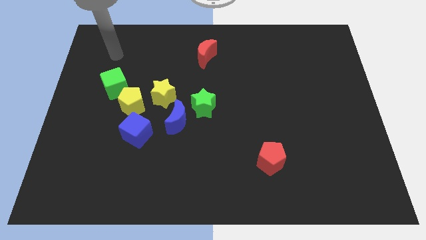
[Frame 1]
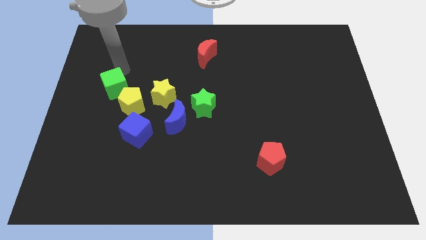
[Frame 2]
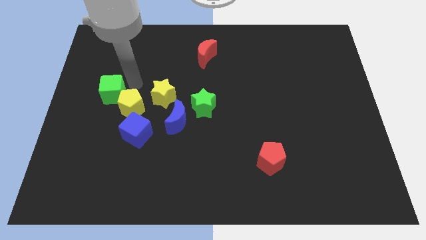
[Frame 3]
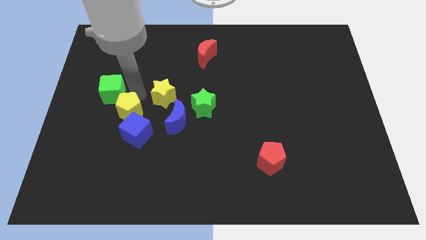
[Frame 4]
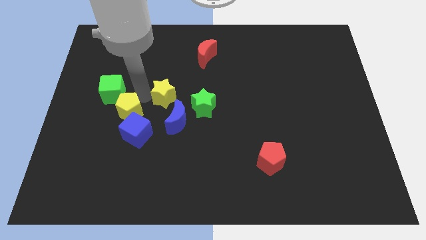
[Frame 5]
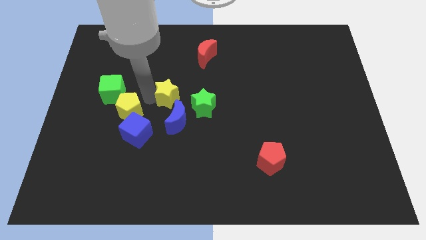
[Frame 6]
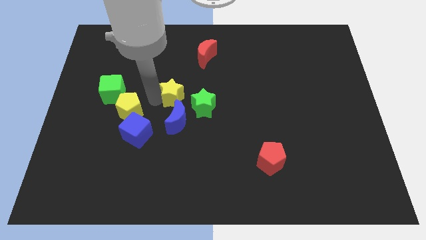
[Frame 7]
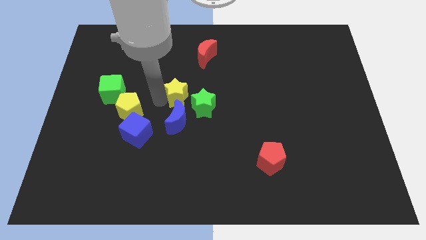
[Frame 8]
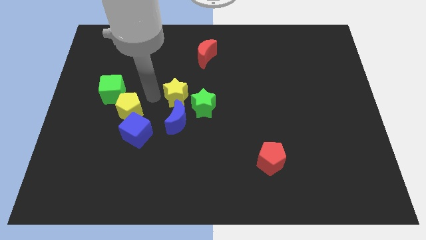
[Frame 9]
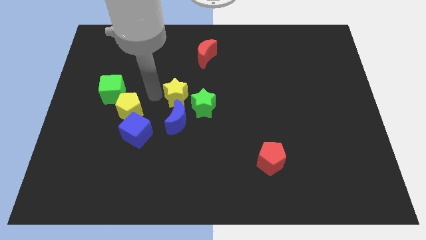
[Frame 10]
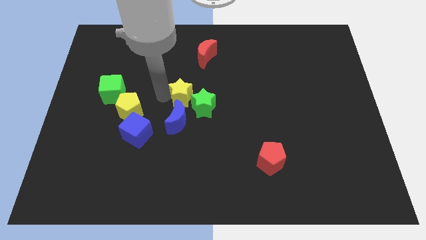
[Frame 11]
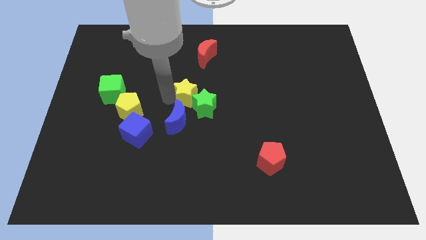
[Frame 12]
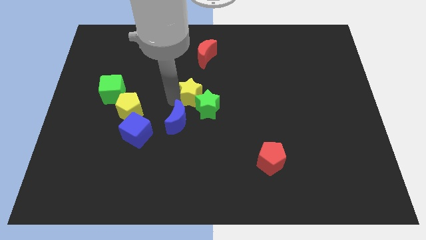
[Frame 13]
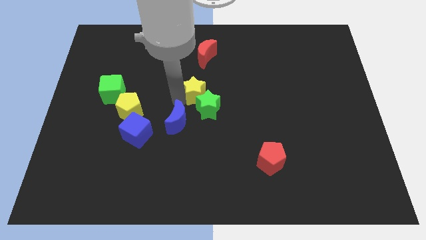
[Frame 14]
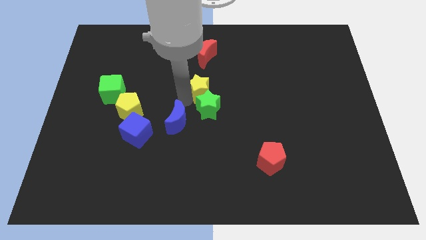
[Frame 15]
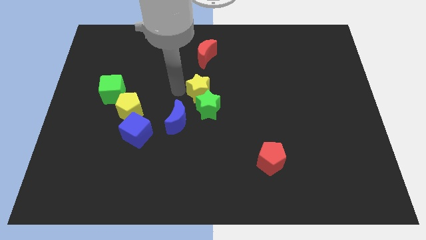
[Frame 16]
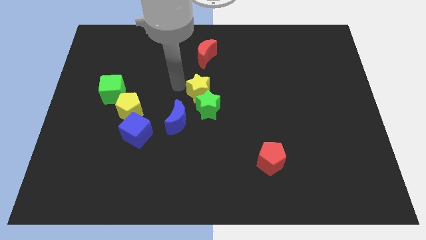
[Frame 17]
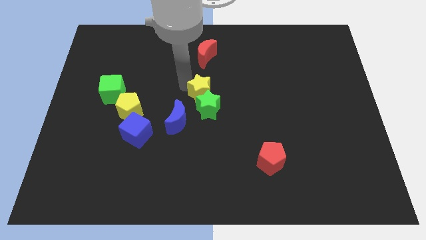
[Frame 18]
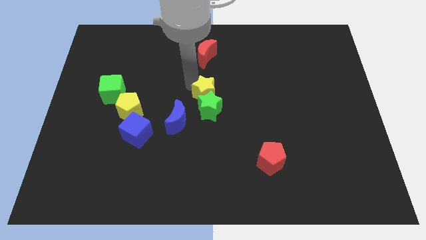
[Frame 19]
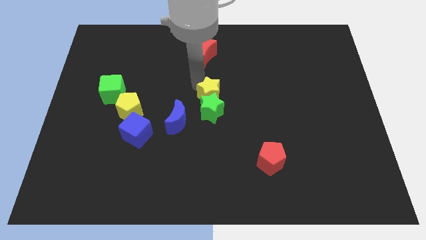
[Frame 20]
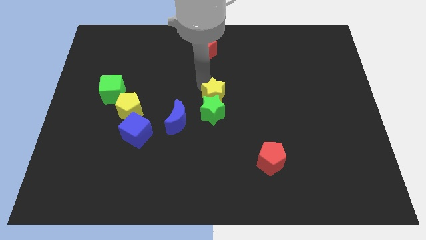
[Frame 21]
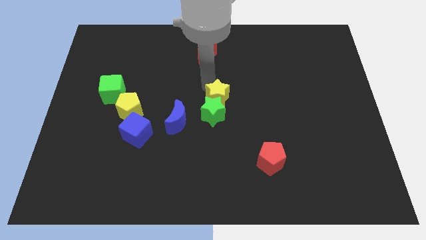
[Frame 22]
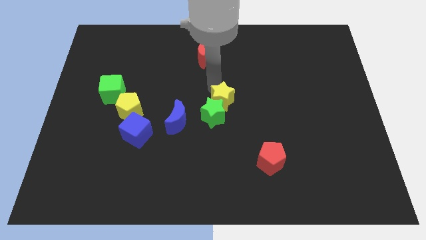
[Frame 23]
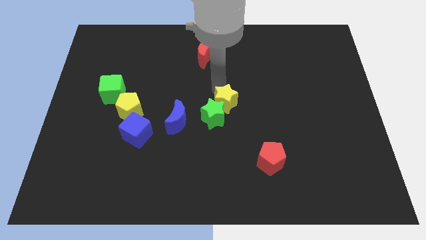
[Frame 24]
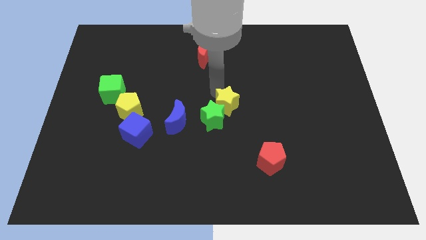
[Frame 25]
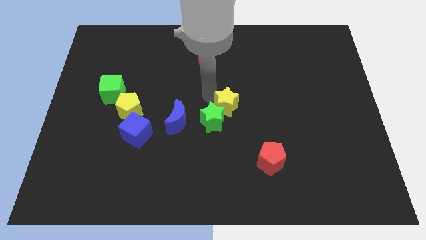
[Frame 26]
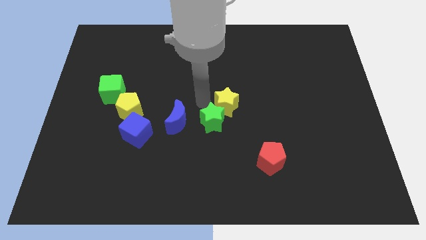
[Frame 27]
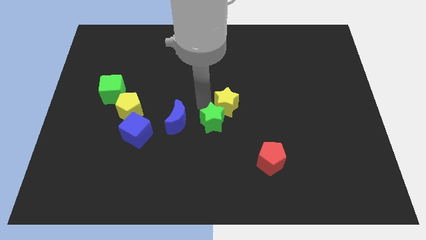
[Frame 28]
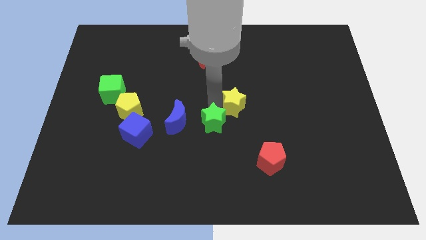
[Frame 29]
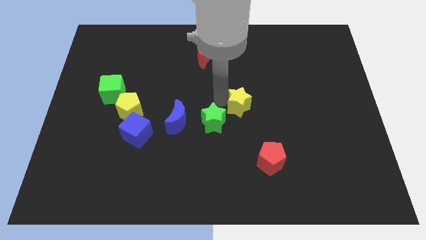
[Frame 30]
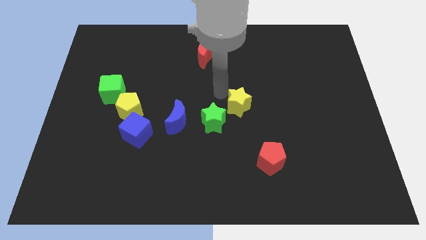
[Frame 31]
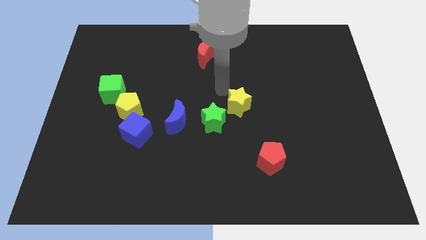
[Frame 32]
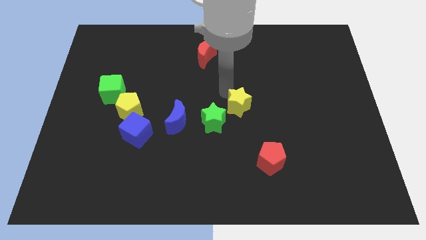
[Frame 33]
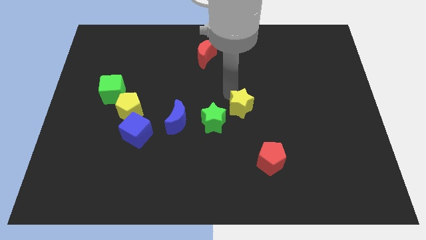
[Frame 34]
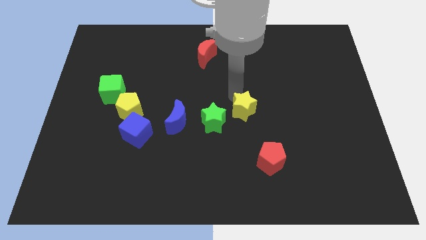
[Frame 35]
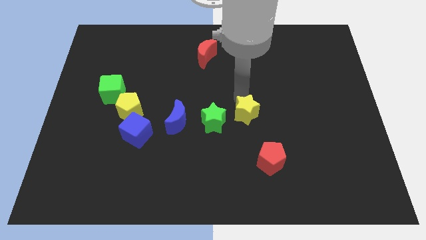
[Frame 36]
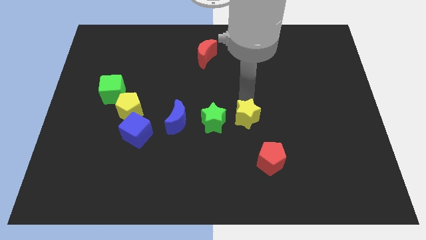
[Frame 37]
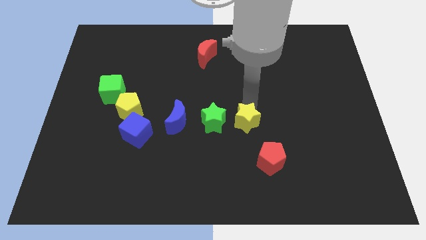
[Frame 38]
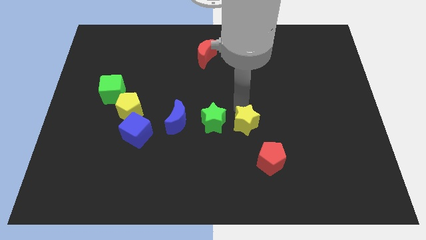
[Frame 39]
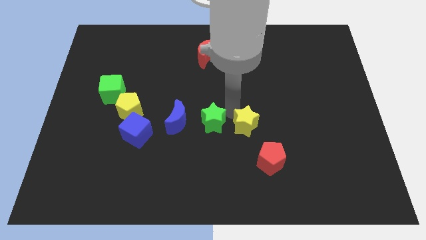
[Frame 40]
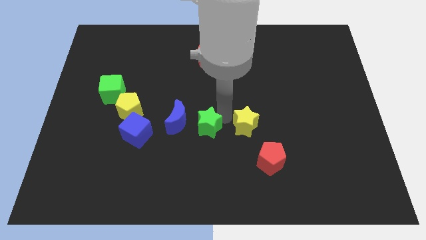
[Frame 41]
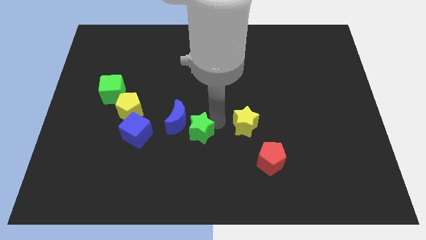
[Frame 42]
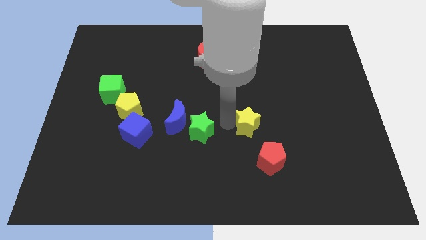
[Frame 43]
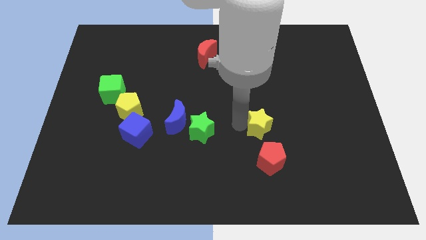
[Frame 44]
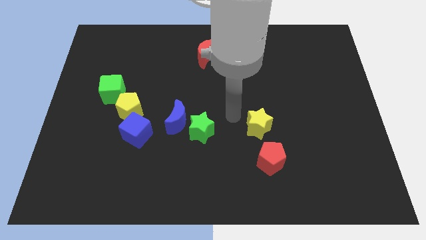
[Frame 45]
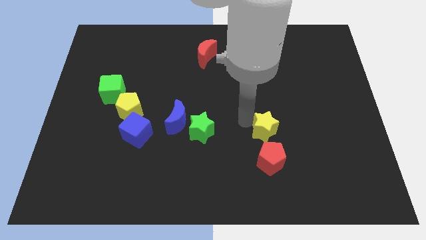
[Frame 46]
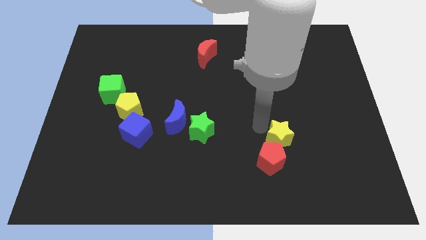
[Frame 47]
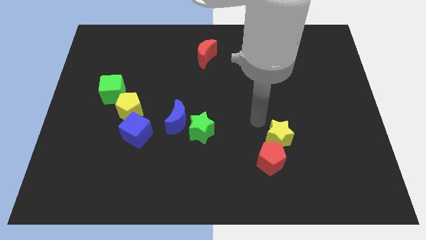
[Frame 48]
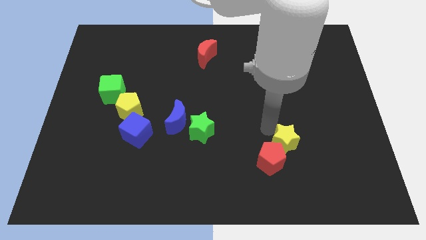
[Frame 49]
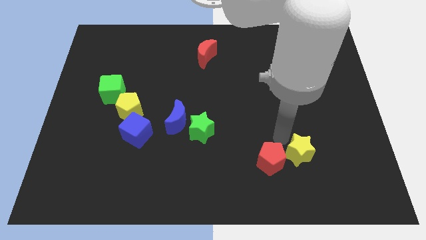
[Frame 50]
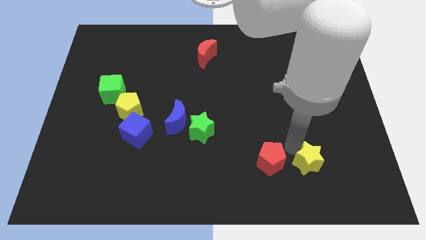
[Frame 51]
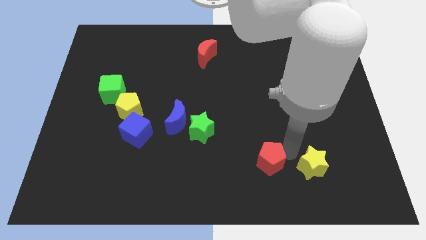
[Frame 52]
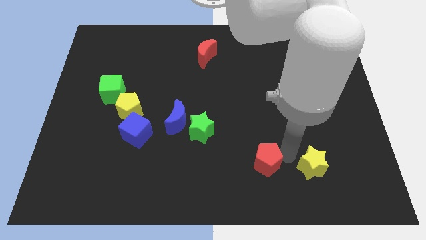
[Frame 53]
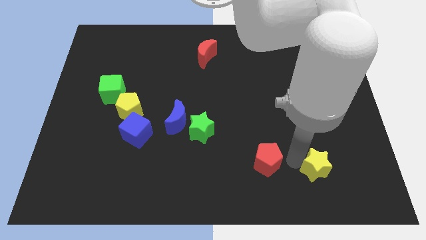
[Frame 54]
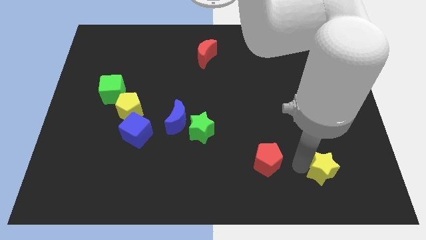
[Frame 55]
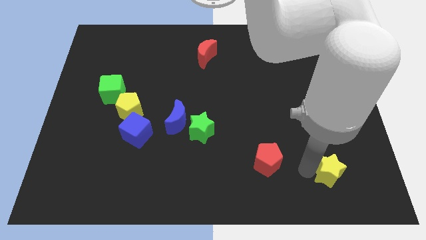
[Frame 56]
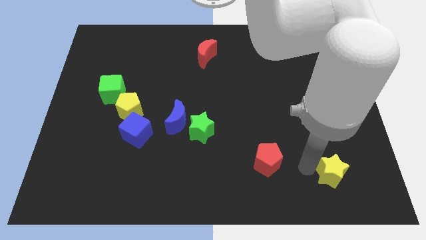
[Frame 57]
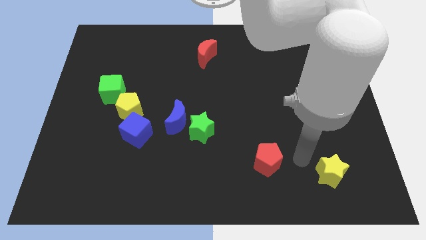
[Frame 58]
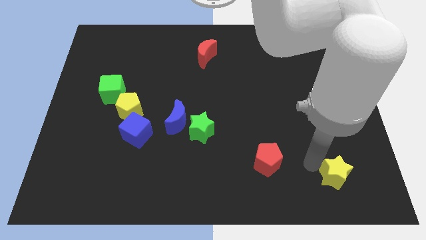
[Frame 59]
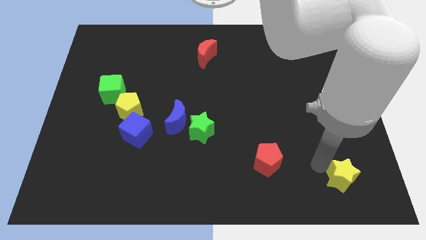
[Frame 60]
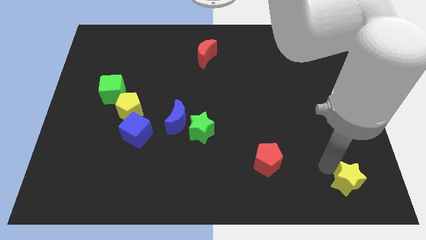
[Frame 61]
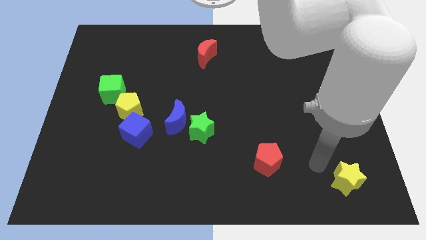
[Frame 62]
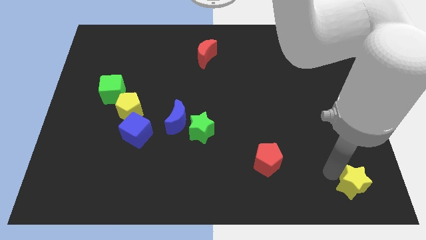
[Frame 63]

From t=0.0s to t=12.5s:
move the yellow star to the bottom right corner

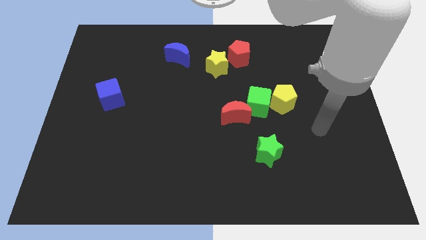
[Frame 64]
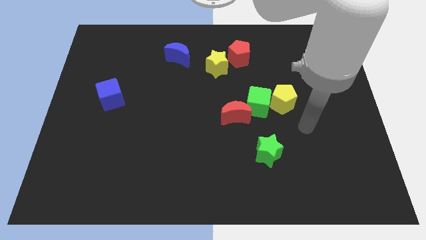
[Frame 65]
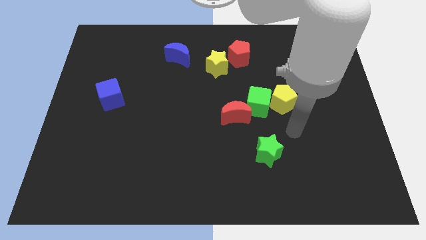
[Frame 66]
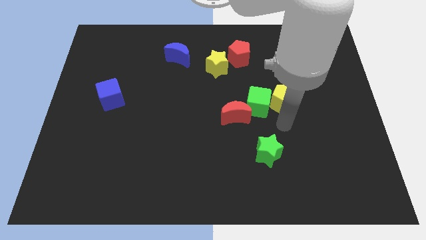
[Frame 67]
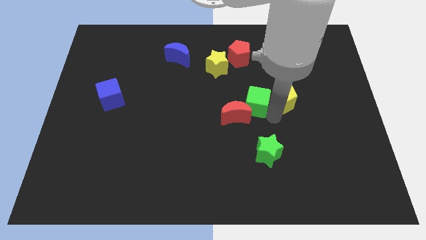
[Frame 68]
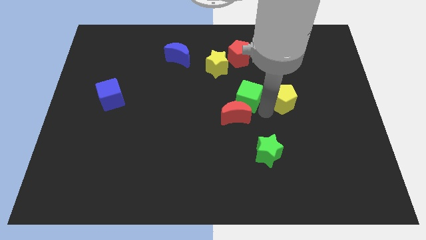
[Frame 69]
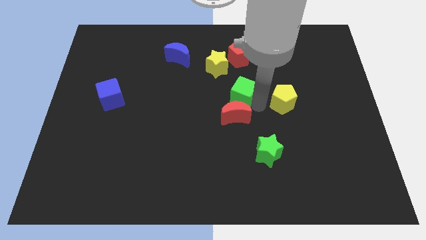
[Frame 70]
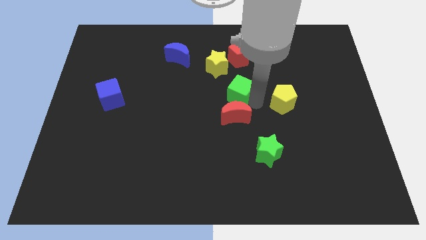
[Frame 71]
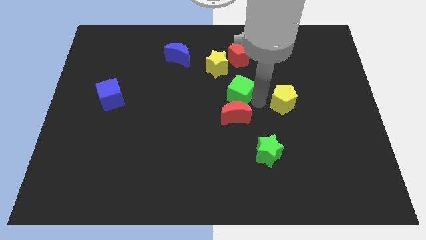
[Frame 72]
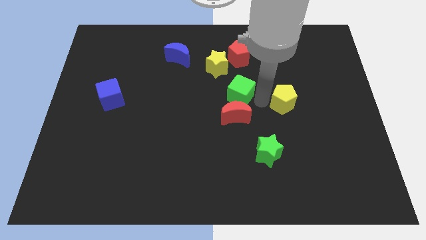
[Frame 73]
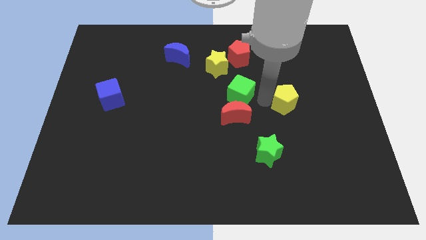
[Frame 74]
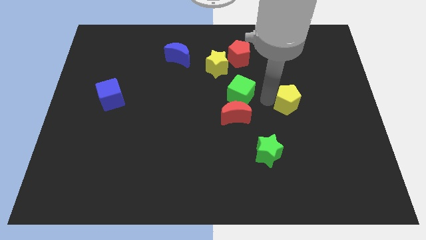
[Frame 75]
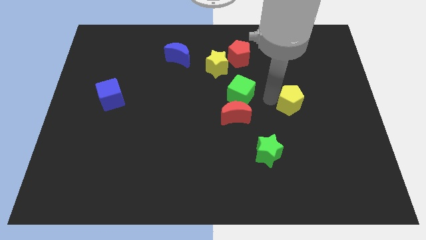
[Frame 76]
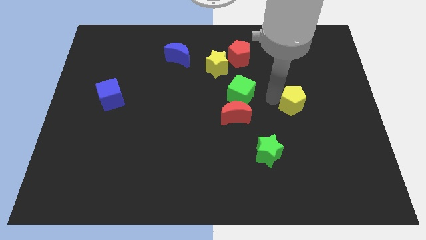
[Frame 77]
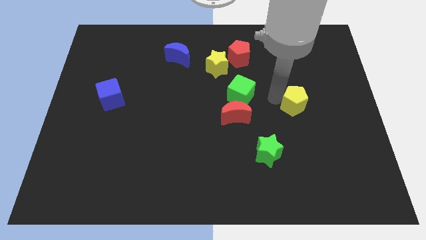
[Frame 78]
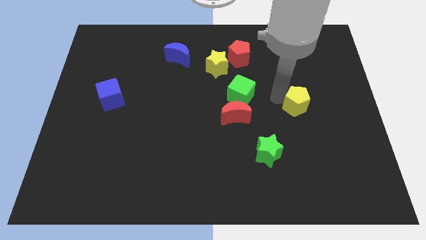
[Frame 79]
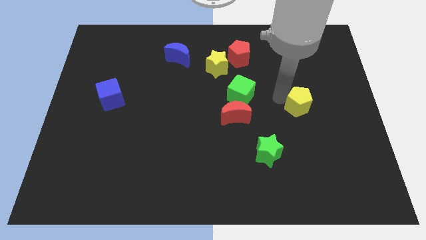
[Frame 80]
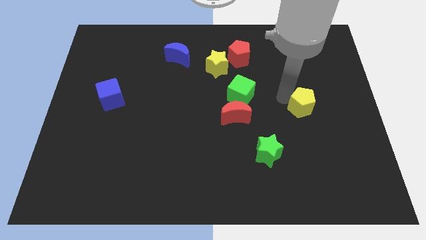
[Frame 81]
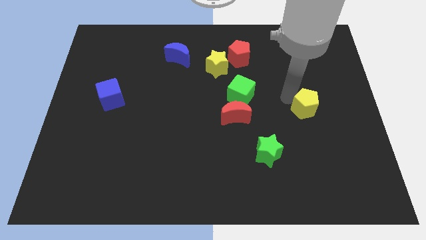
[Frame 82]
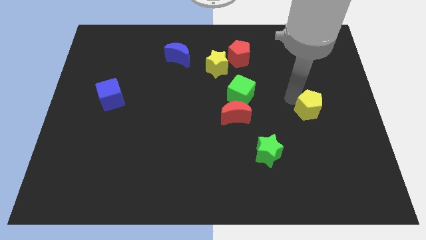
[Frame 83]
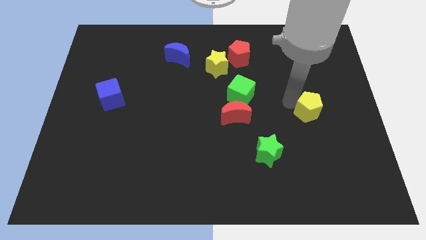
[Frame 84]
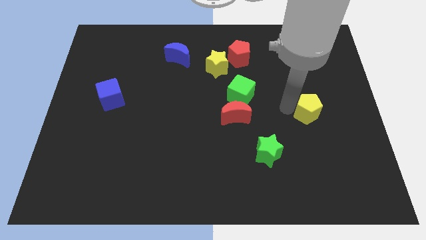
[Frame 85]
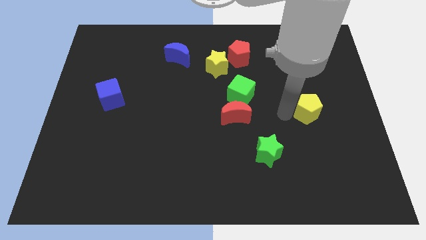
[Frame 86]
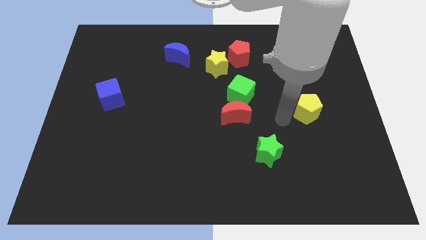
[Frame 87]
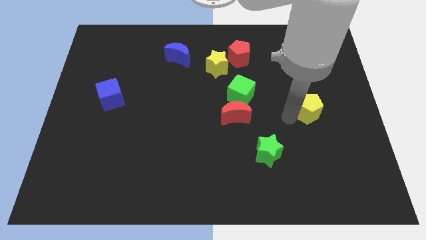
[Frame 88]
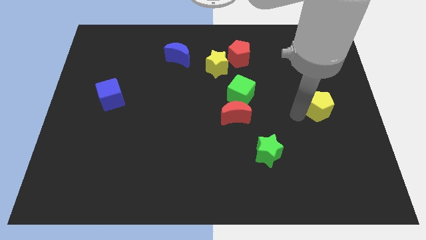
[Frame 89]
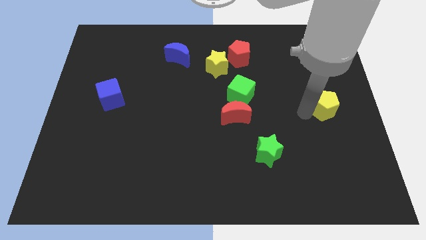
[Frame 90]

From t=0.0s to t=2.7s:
put the yellow pentagon to the center right
